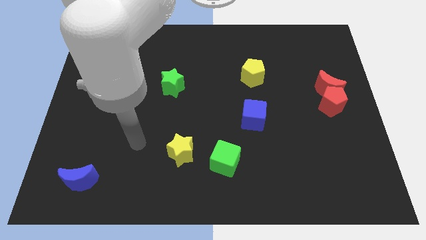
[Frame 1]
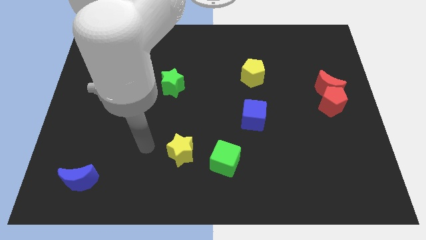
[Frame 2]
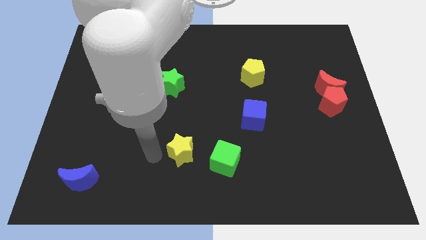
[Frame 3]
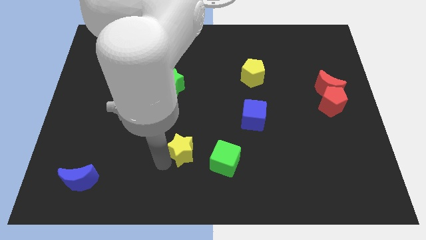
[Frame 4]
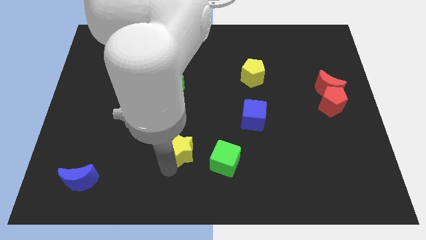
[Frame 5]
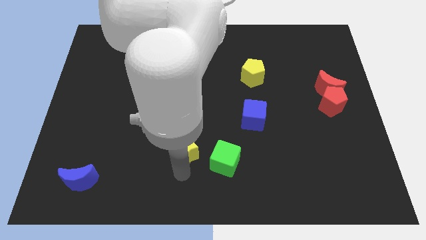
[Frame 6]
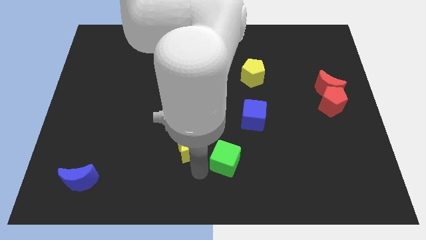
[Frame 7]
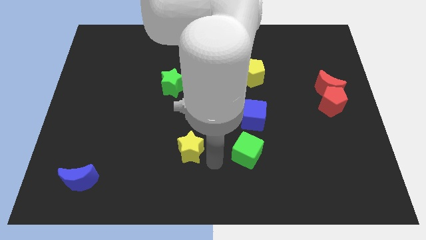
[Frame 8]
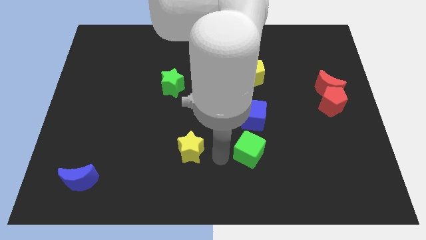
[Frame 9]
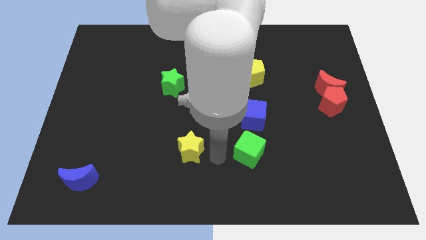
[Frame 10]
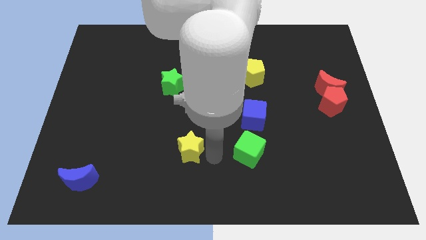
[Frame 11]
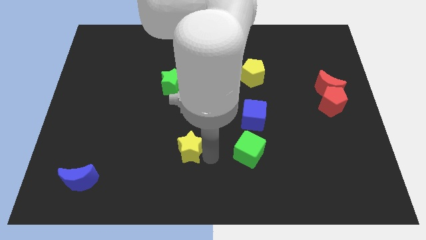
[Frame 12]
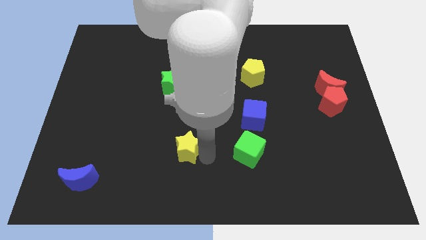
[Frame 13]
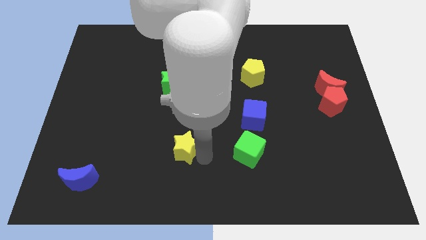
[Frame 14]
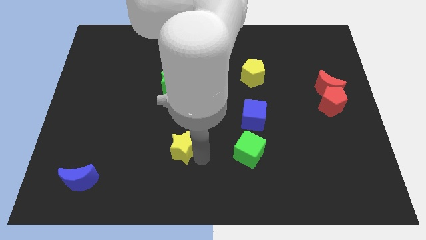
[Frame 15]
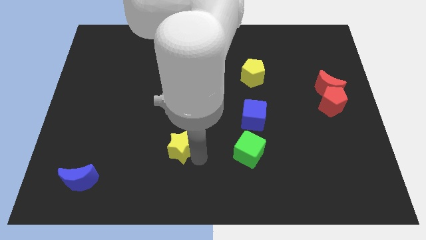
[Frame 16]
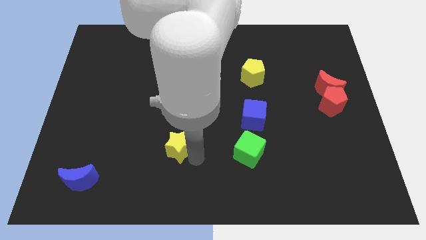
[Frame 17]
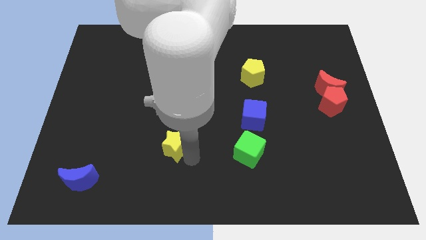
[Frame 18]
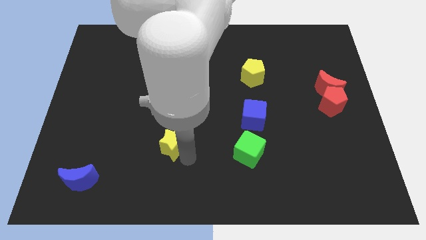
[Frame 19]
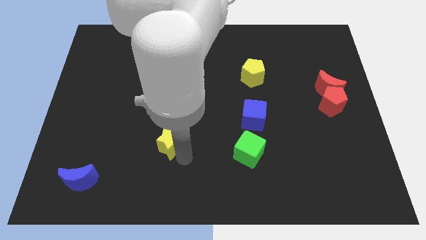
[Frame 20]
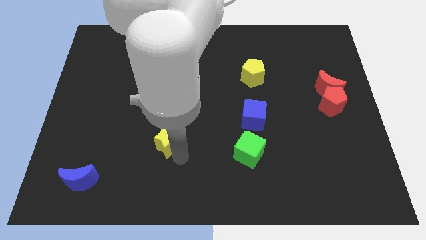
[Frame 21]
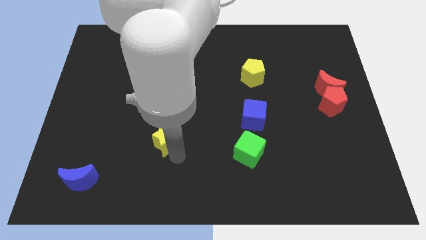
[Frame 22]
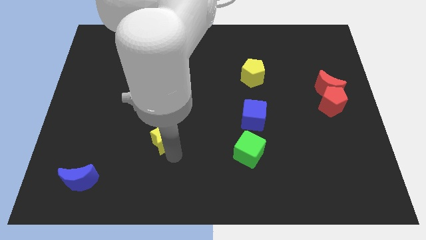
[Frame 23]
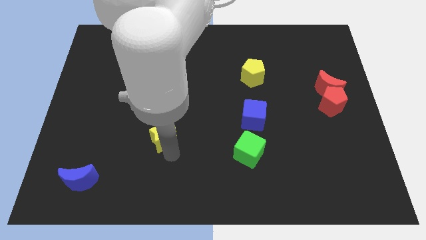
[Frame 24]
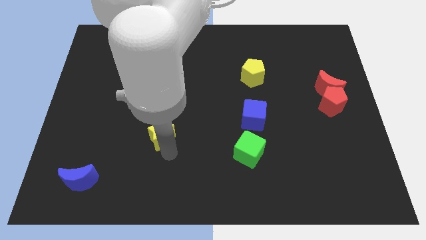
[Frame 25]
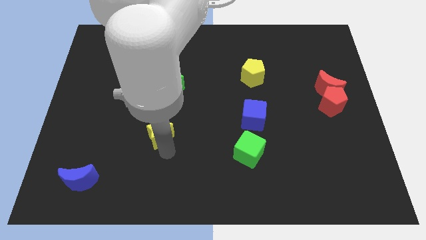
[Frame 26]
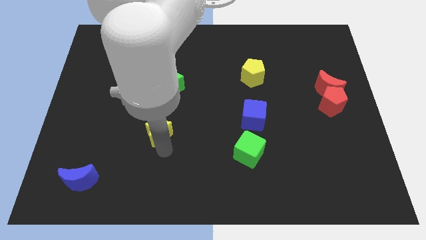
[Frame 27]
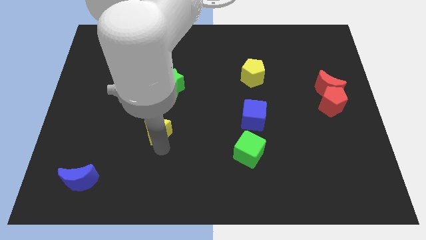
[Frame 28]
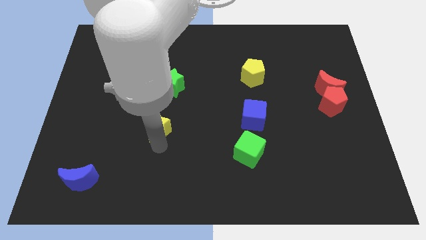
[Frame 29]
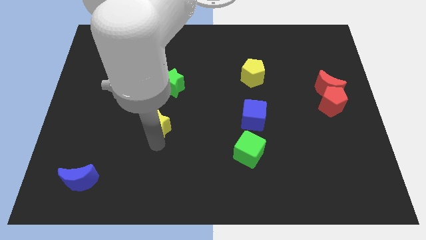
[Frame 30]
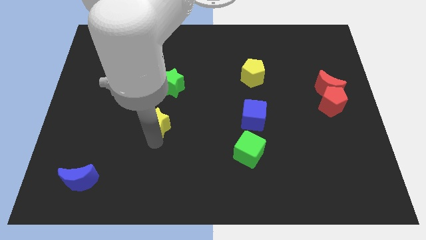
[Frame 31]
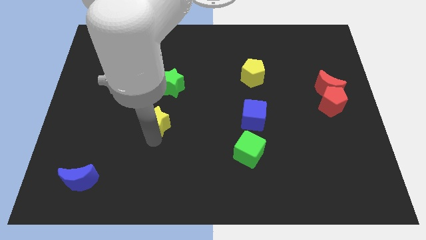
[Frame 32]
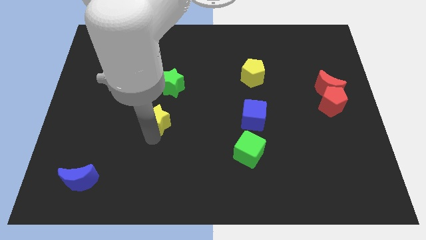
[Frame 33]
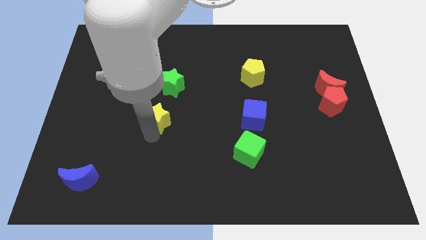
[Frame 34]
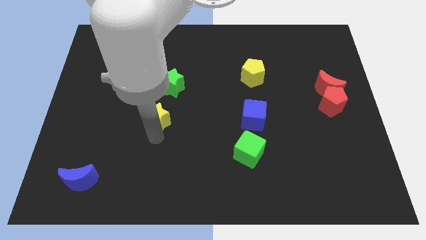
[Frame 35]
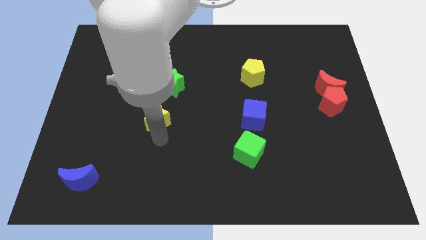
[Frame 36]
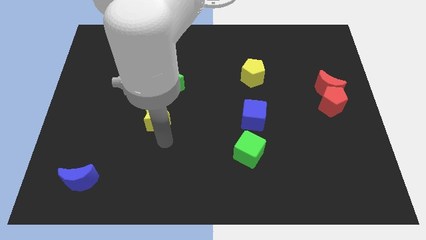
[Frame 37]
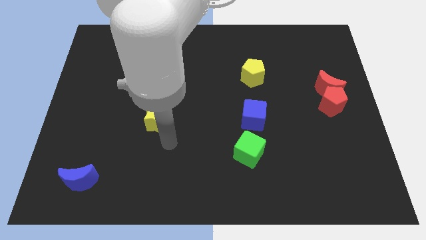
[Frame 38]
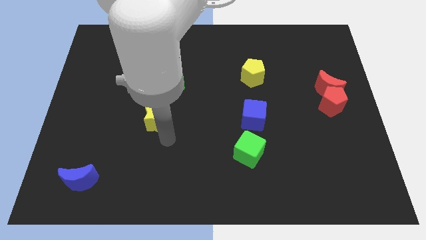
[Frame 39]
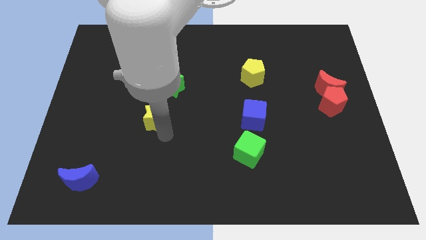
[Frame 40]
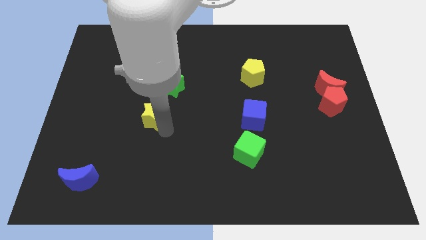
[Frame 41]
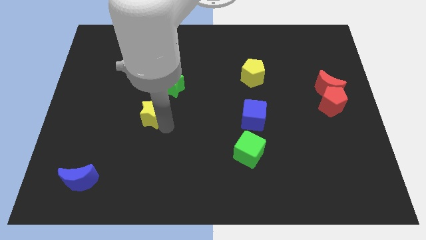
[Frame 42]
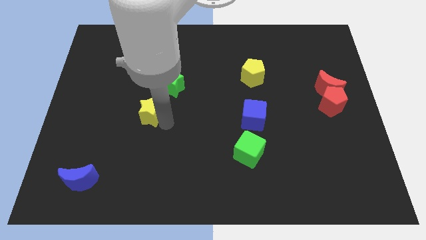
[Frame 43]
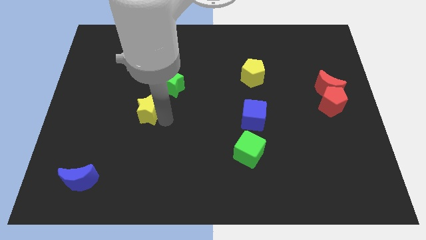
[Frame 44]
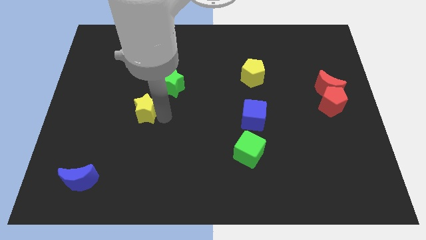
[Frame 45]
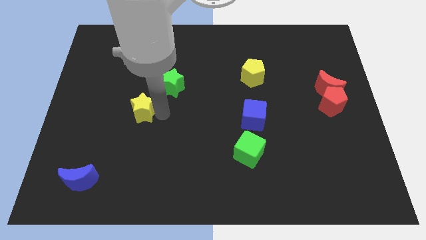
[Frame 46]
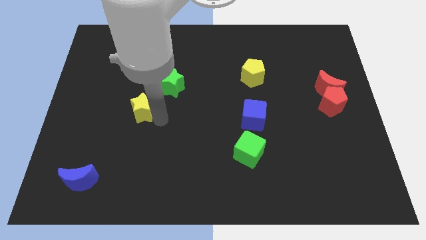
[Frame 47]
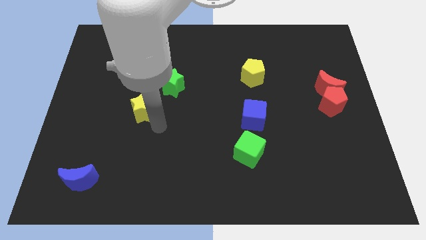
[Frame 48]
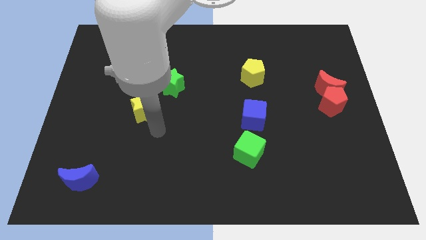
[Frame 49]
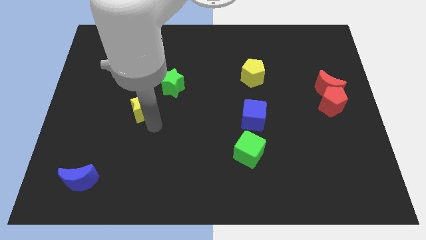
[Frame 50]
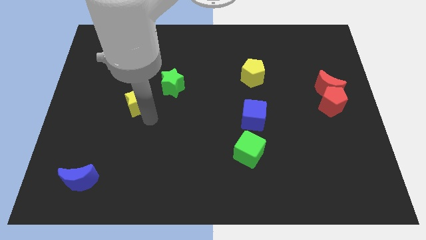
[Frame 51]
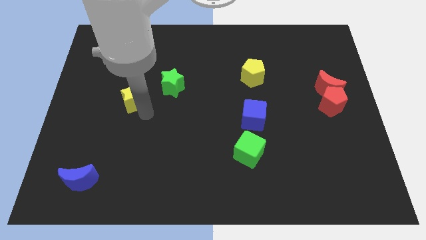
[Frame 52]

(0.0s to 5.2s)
push the yellow star to the left of the green star

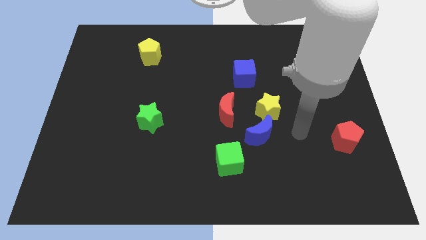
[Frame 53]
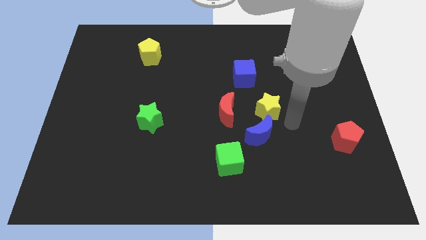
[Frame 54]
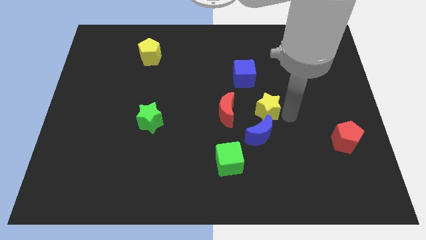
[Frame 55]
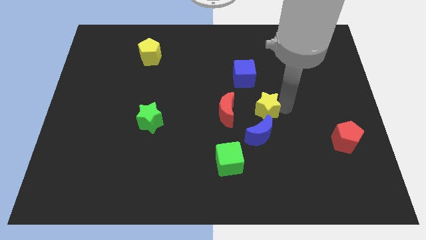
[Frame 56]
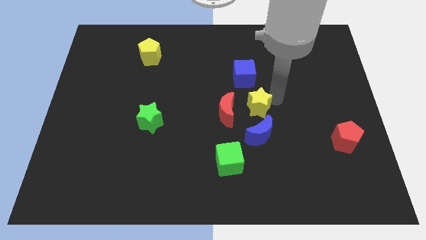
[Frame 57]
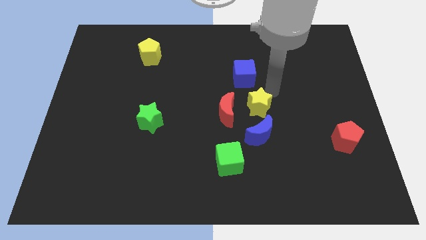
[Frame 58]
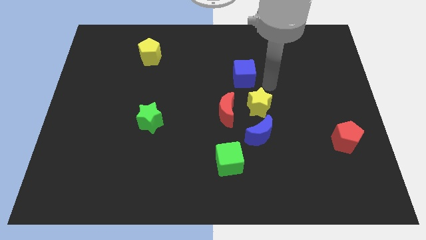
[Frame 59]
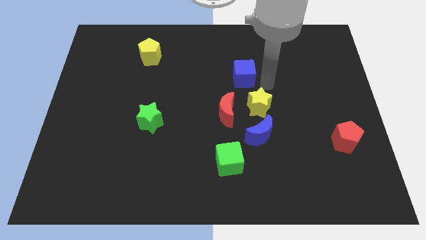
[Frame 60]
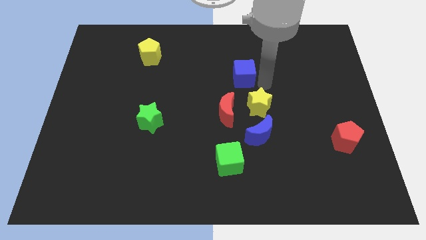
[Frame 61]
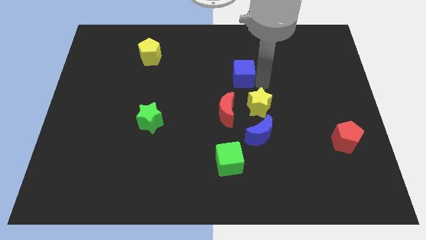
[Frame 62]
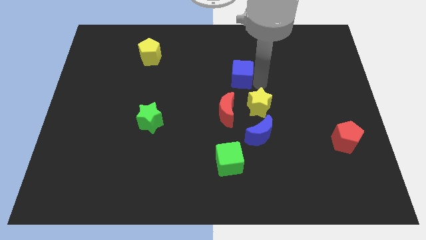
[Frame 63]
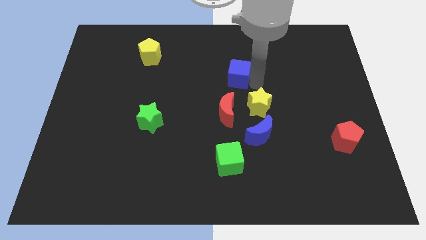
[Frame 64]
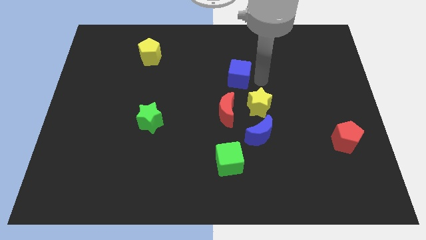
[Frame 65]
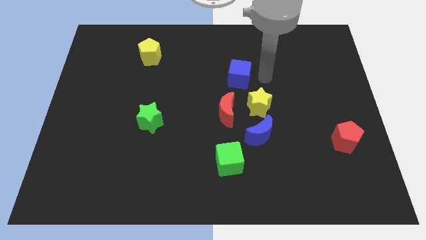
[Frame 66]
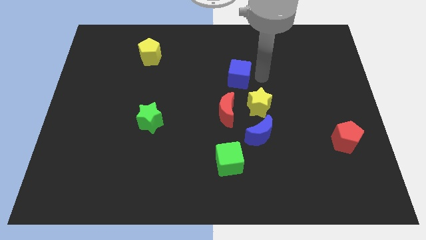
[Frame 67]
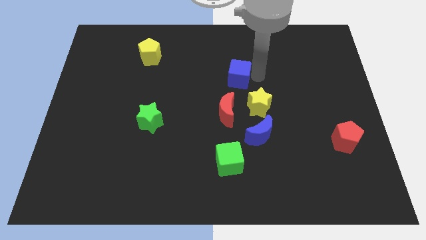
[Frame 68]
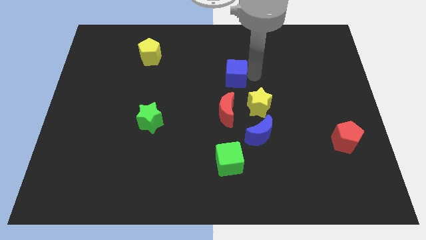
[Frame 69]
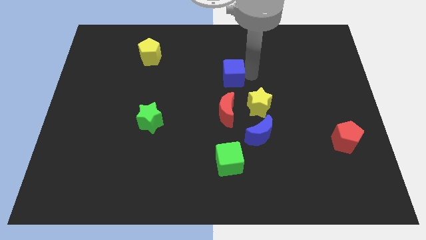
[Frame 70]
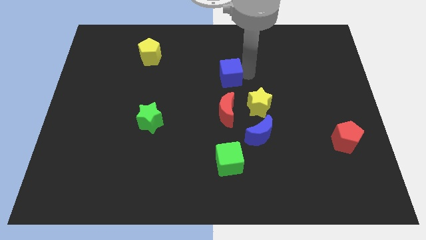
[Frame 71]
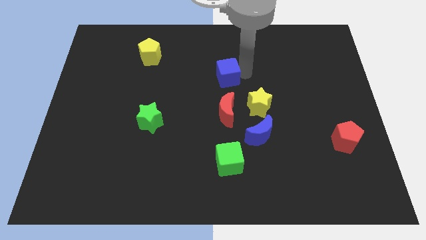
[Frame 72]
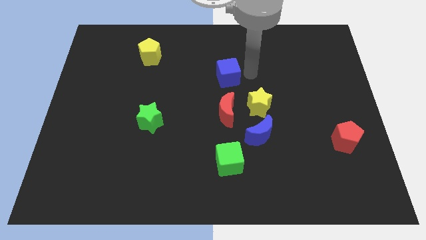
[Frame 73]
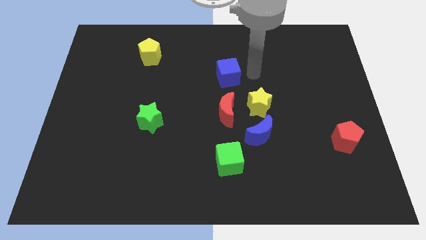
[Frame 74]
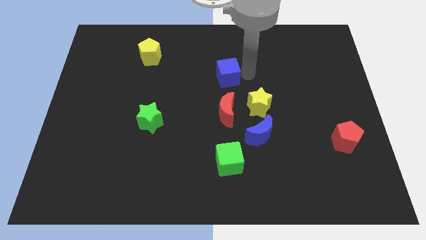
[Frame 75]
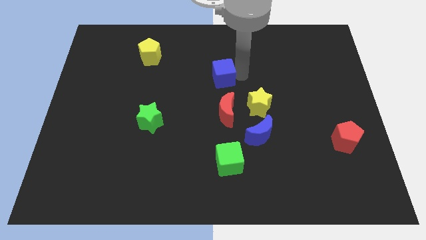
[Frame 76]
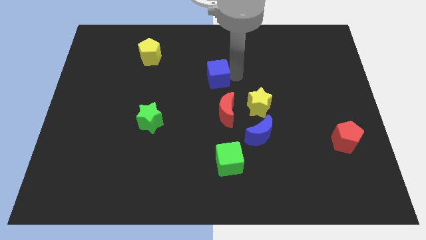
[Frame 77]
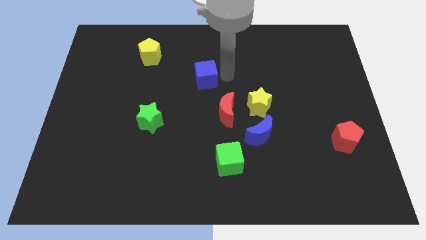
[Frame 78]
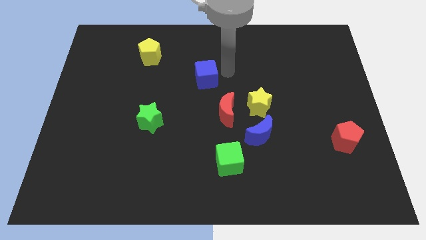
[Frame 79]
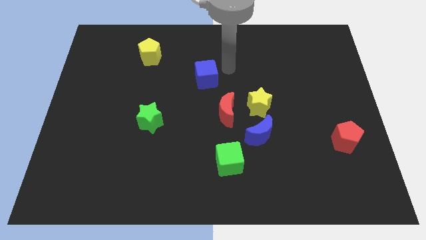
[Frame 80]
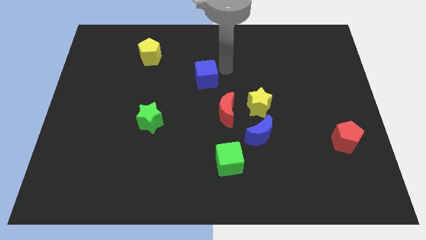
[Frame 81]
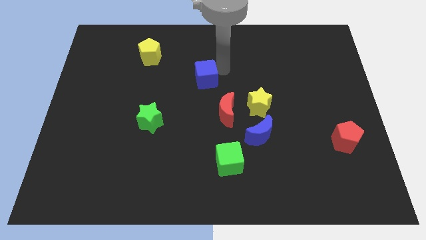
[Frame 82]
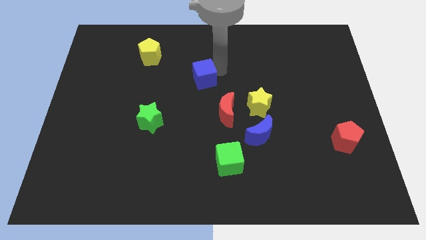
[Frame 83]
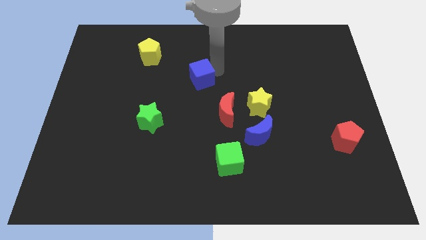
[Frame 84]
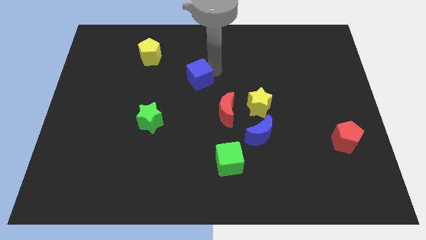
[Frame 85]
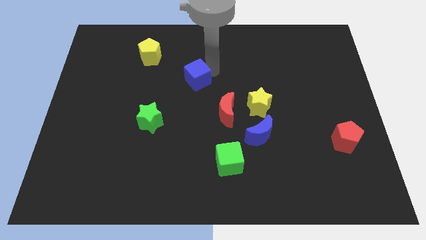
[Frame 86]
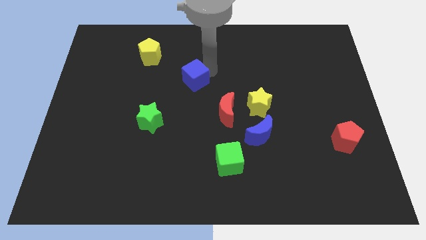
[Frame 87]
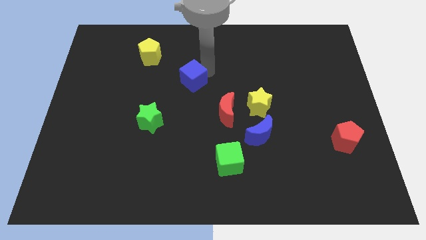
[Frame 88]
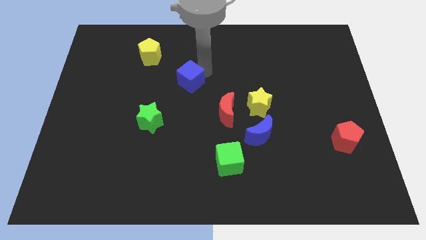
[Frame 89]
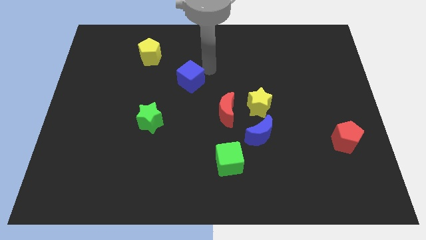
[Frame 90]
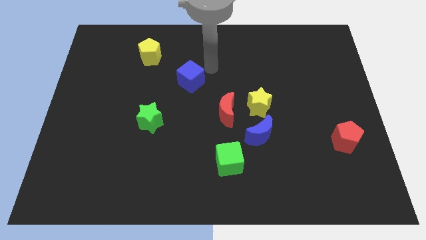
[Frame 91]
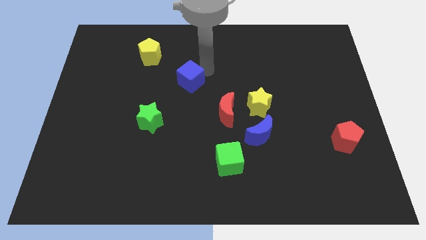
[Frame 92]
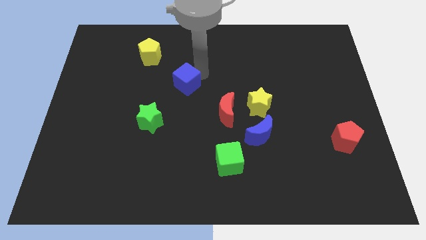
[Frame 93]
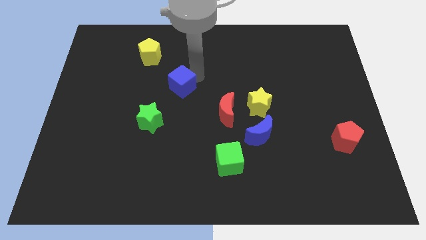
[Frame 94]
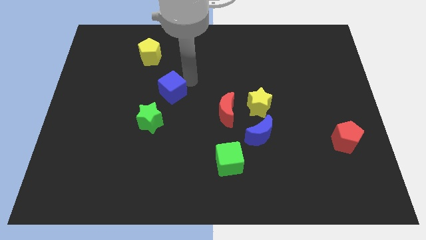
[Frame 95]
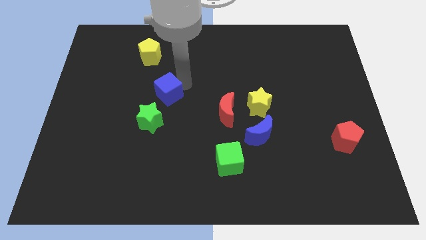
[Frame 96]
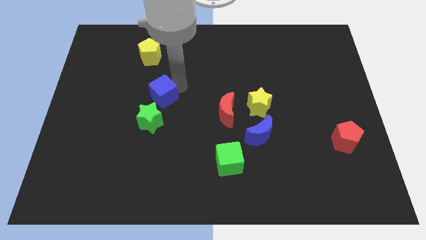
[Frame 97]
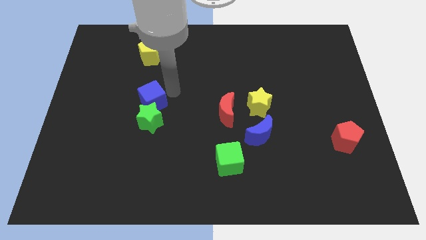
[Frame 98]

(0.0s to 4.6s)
slide the blue cube to the top left side of the green star
